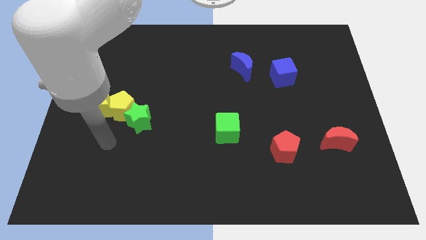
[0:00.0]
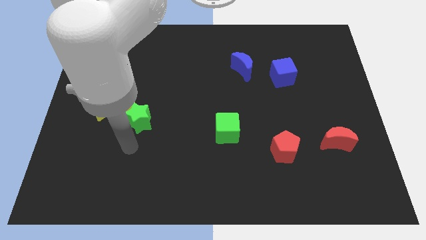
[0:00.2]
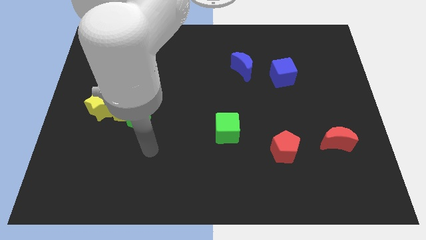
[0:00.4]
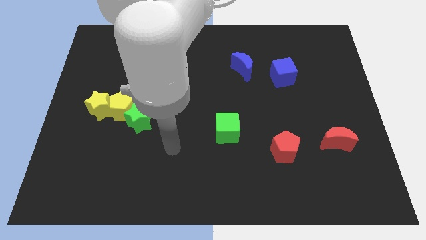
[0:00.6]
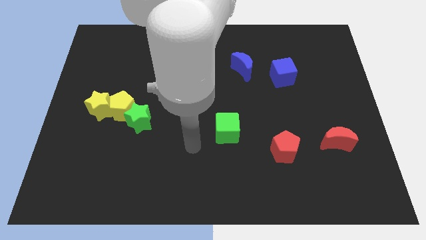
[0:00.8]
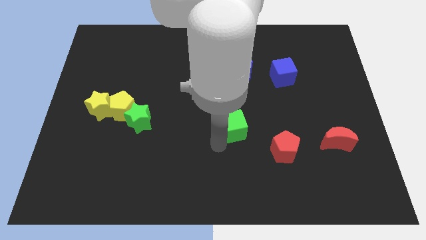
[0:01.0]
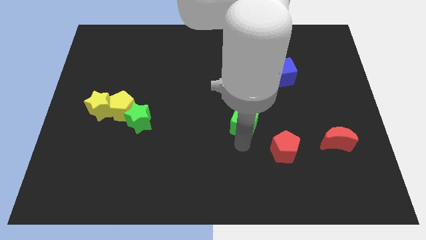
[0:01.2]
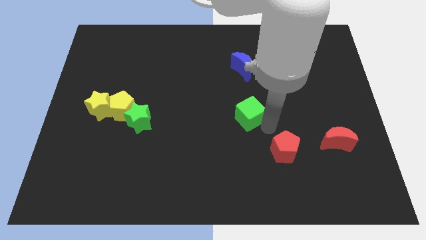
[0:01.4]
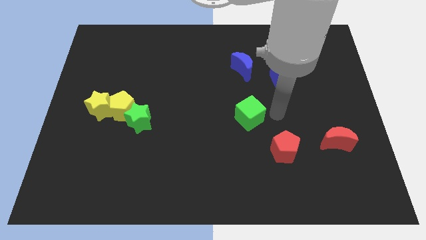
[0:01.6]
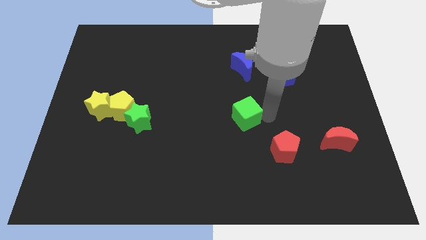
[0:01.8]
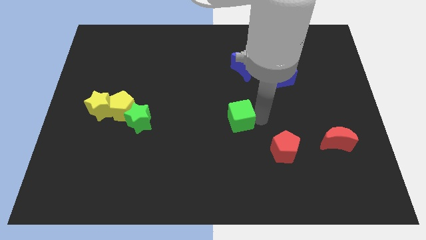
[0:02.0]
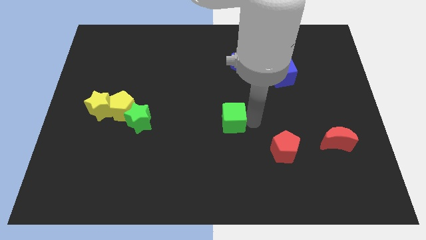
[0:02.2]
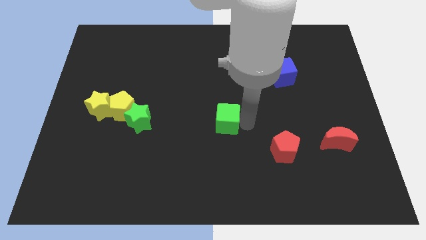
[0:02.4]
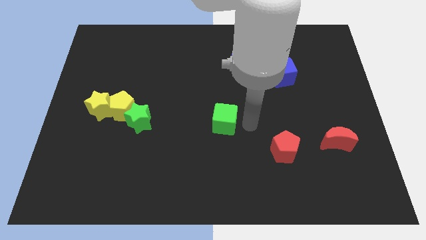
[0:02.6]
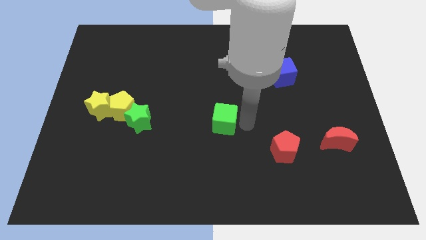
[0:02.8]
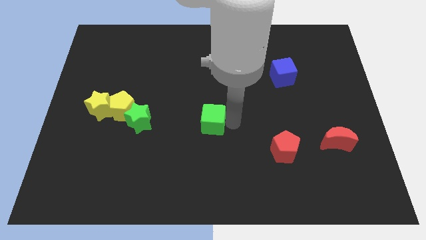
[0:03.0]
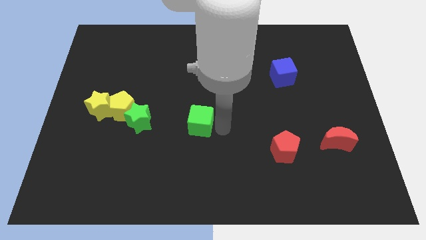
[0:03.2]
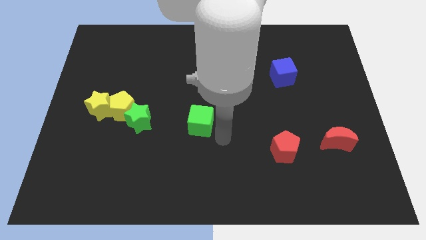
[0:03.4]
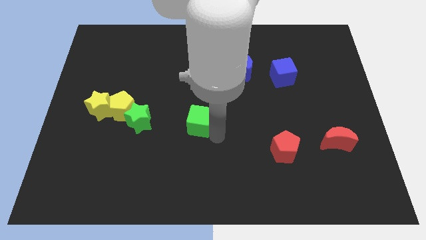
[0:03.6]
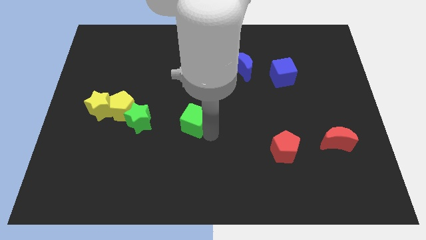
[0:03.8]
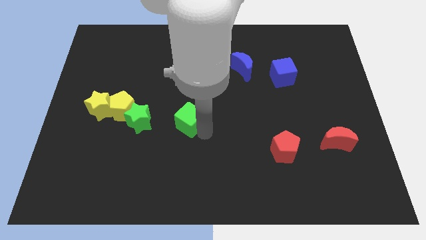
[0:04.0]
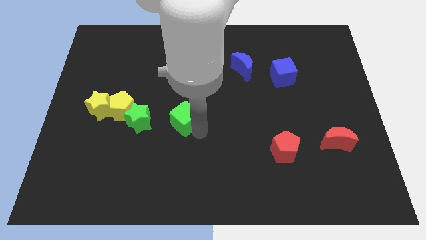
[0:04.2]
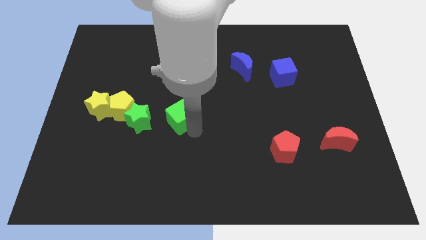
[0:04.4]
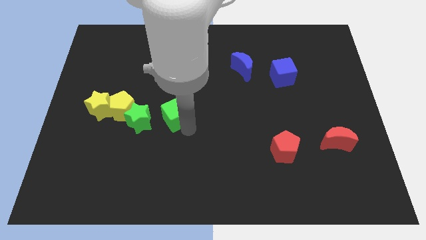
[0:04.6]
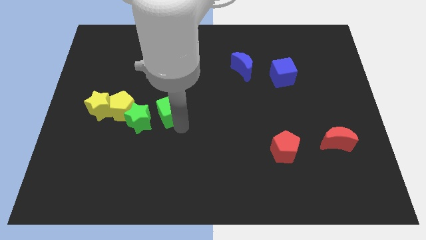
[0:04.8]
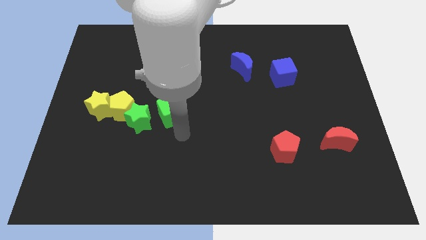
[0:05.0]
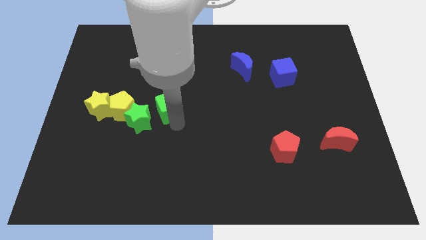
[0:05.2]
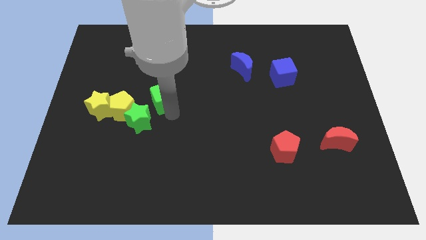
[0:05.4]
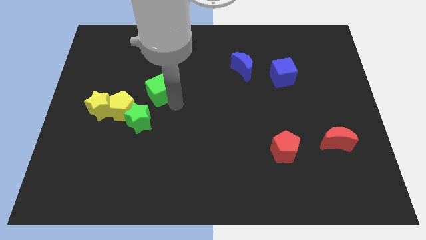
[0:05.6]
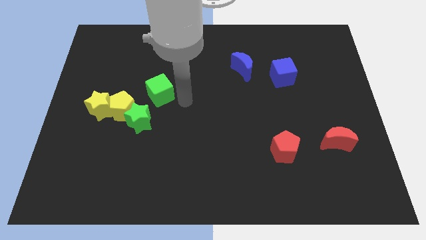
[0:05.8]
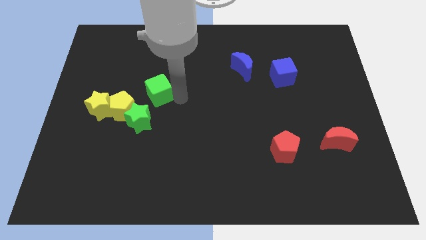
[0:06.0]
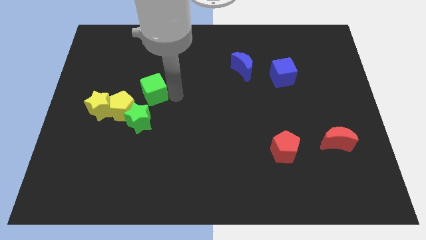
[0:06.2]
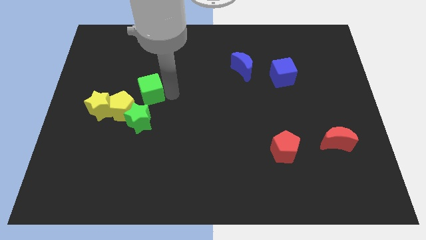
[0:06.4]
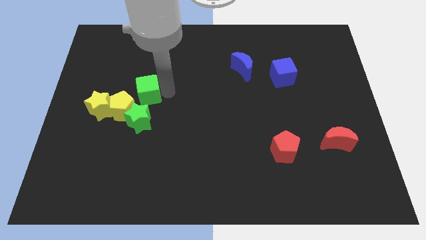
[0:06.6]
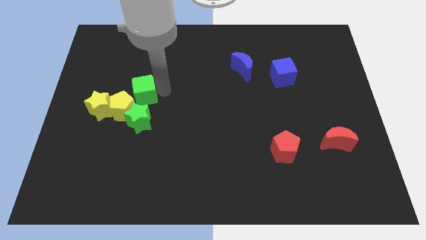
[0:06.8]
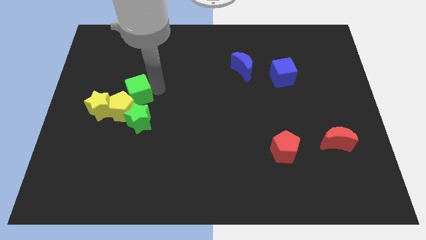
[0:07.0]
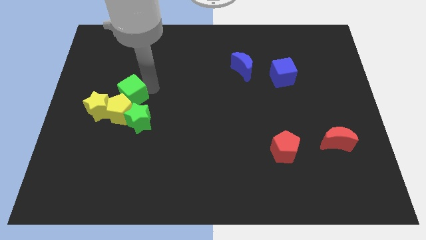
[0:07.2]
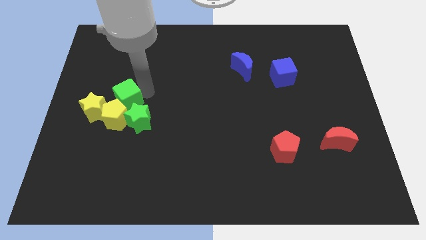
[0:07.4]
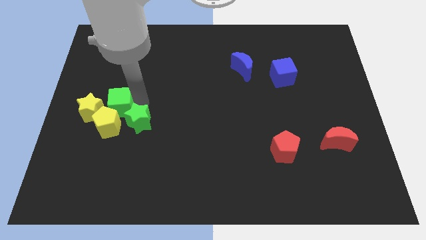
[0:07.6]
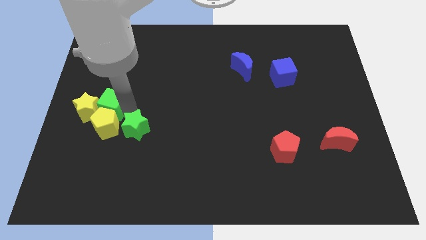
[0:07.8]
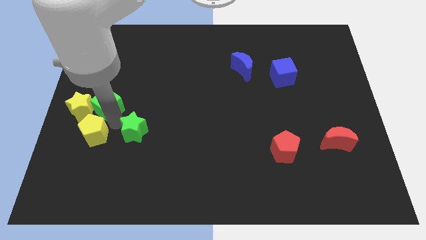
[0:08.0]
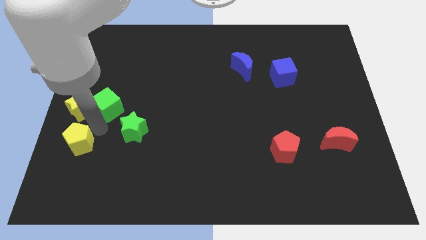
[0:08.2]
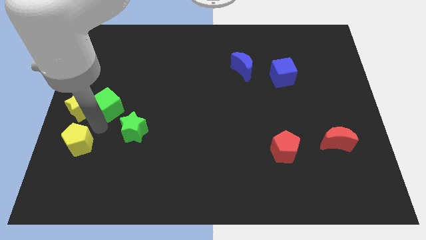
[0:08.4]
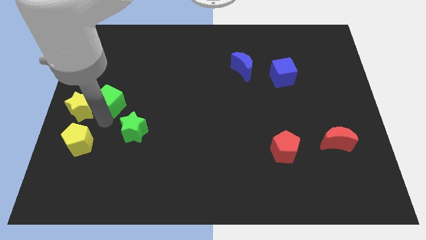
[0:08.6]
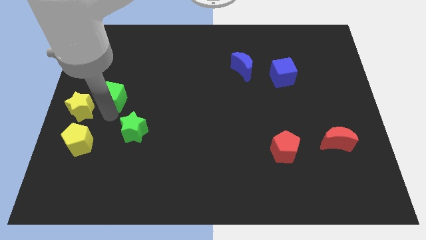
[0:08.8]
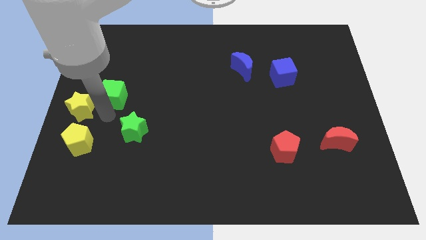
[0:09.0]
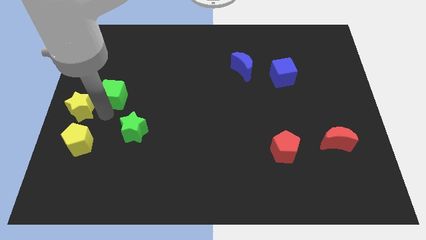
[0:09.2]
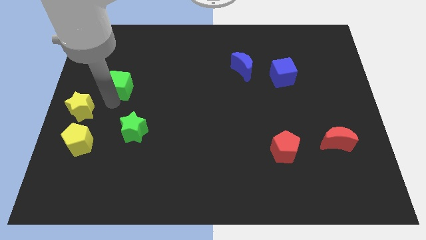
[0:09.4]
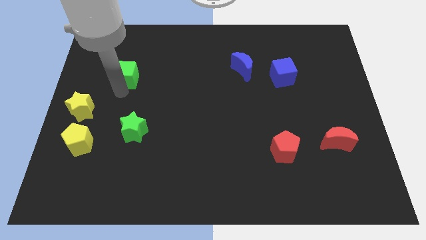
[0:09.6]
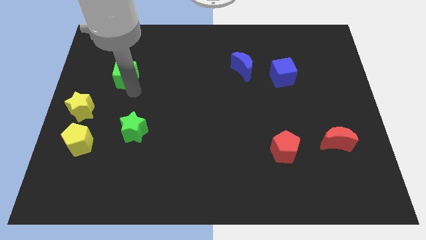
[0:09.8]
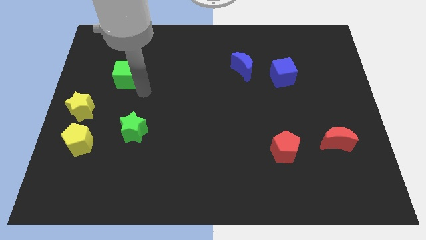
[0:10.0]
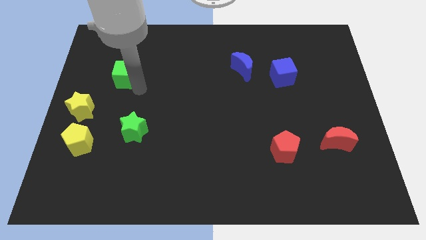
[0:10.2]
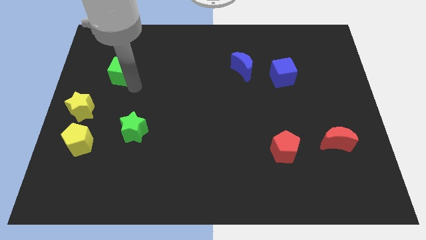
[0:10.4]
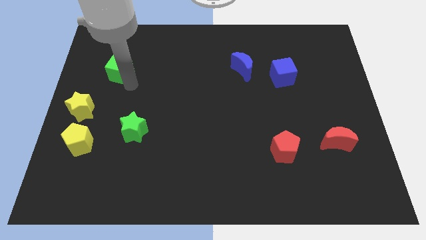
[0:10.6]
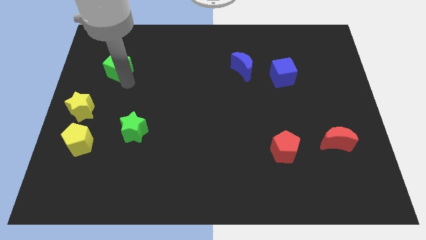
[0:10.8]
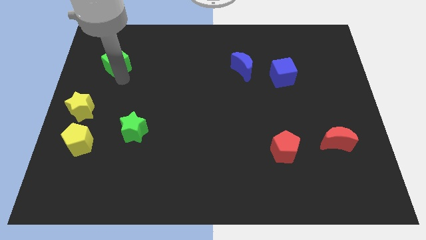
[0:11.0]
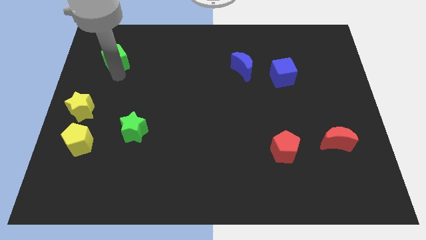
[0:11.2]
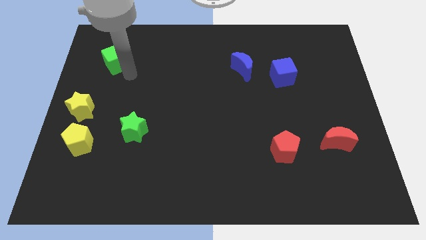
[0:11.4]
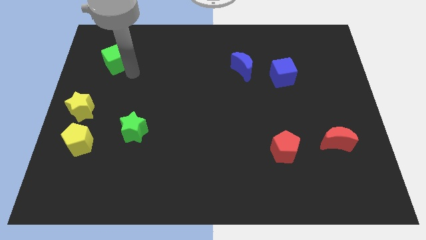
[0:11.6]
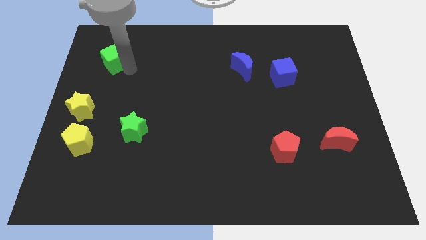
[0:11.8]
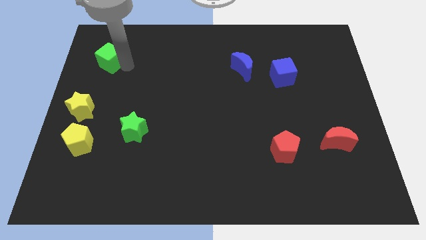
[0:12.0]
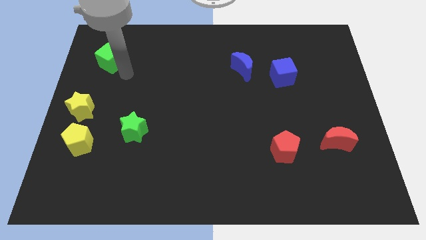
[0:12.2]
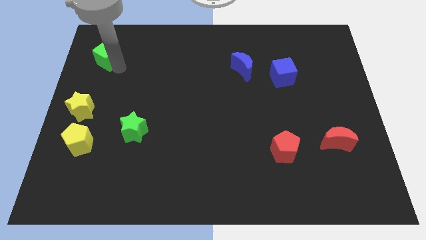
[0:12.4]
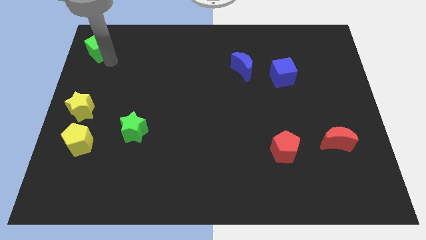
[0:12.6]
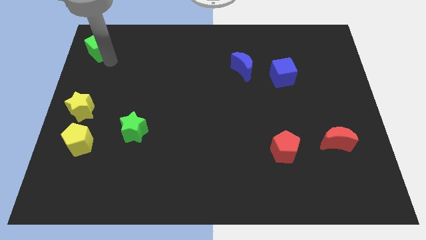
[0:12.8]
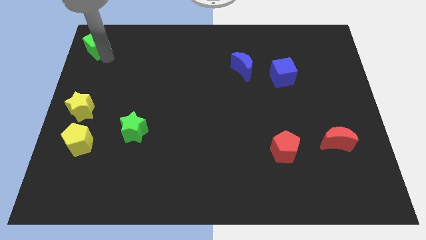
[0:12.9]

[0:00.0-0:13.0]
move the green cube to the top left of the board

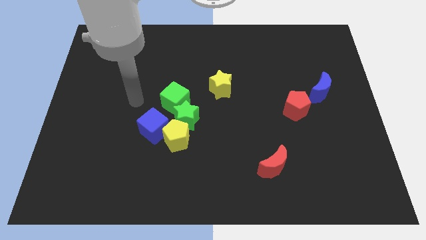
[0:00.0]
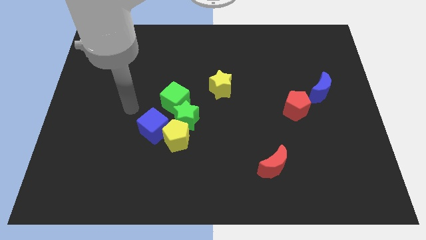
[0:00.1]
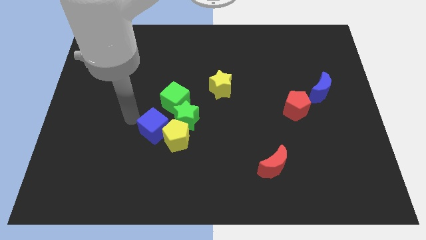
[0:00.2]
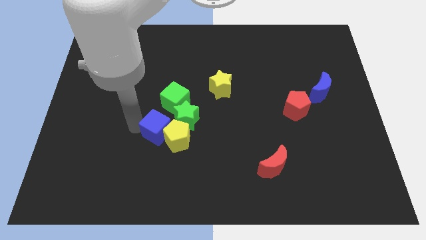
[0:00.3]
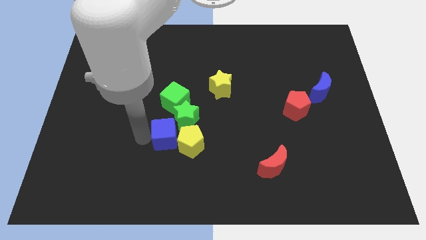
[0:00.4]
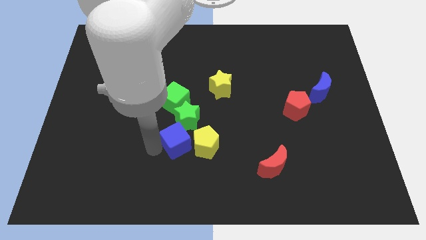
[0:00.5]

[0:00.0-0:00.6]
move the yellow pentagon to the center of the board
